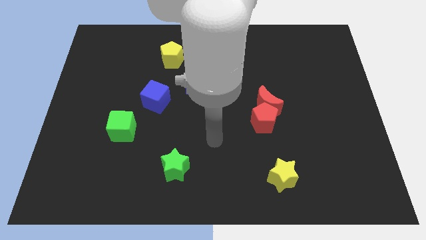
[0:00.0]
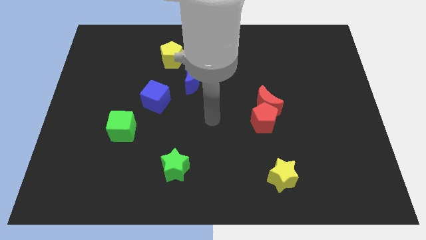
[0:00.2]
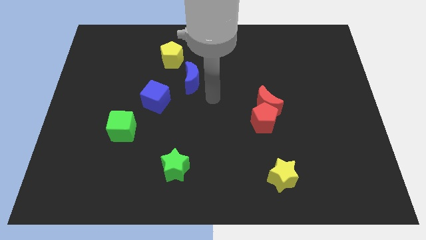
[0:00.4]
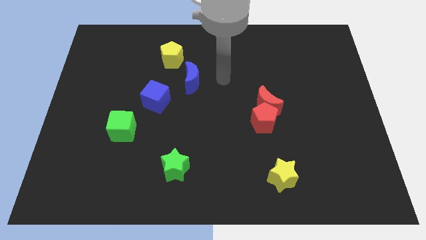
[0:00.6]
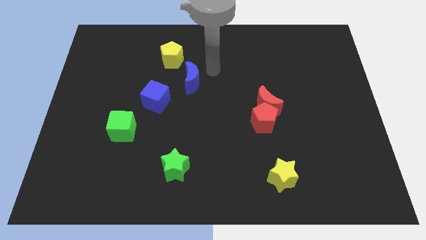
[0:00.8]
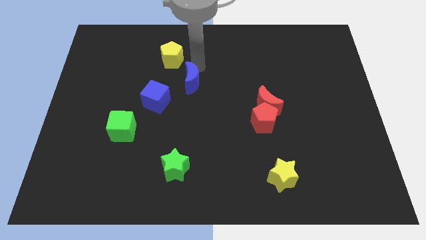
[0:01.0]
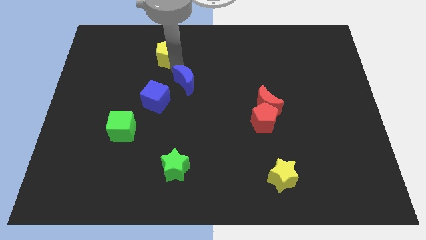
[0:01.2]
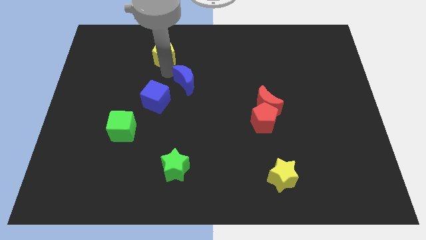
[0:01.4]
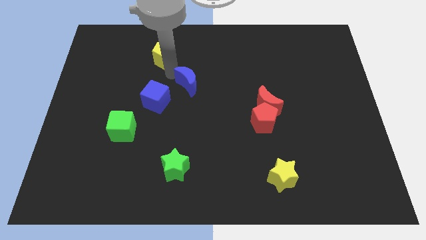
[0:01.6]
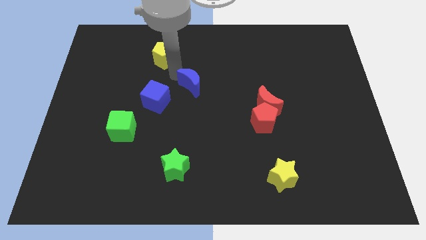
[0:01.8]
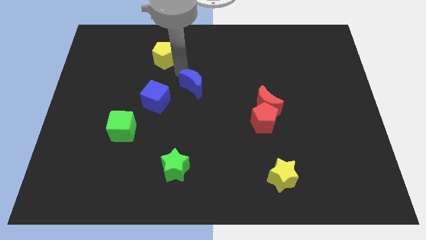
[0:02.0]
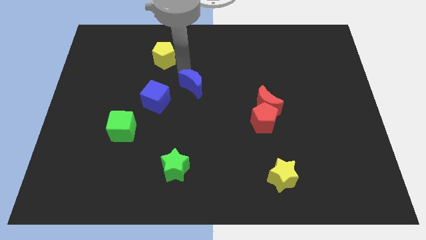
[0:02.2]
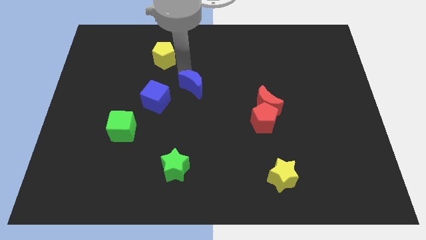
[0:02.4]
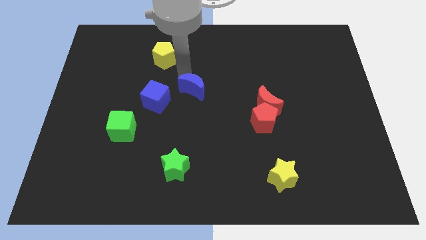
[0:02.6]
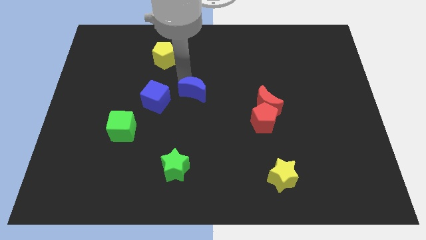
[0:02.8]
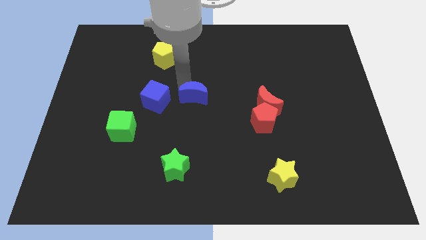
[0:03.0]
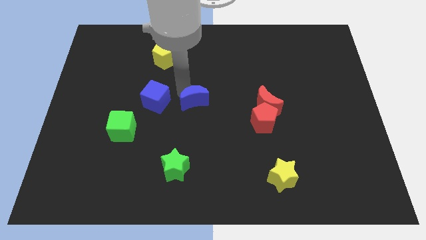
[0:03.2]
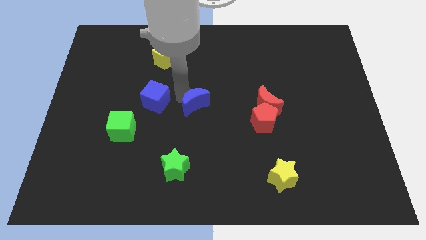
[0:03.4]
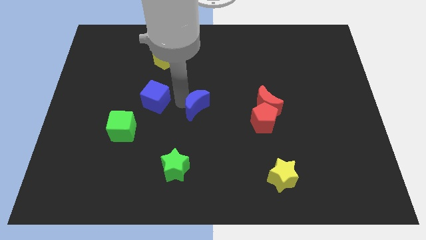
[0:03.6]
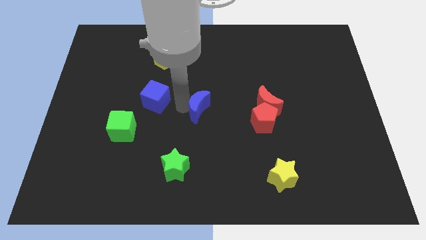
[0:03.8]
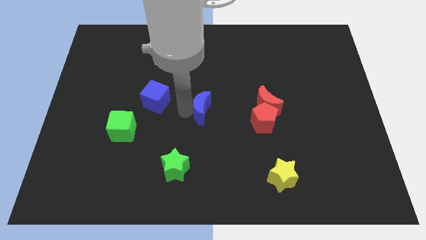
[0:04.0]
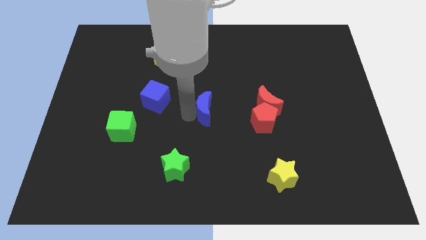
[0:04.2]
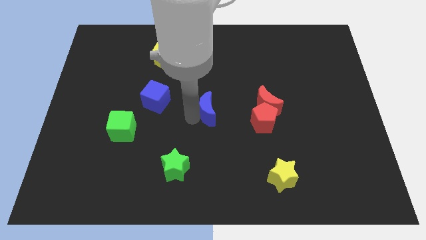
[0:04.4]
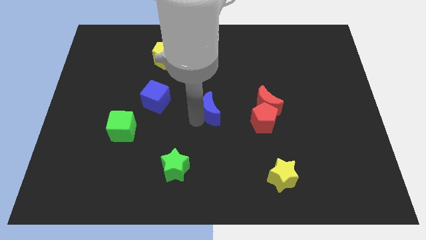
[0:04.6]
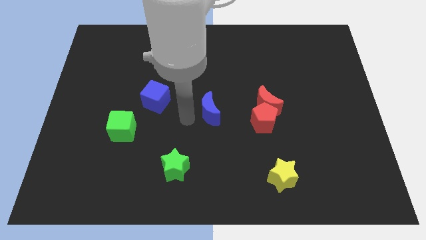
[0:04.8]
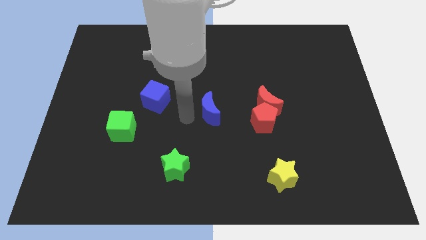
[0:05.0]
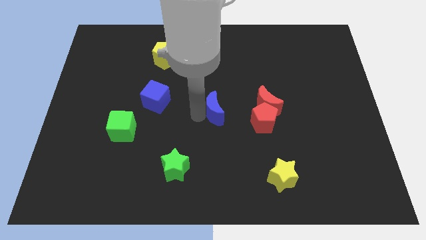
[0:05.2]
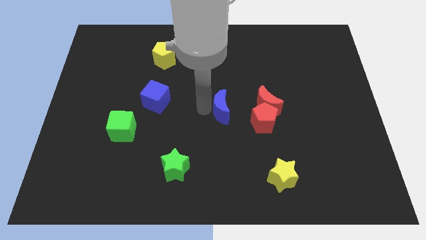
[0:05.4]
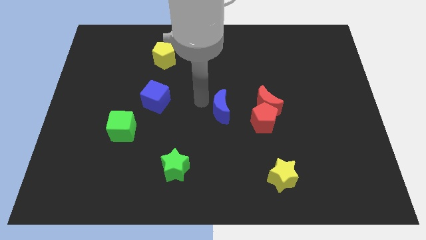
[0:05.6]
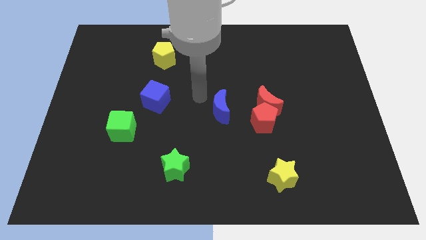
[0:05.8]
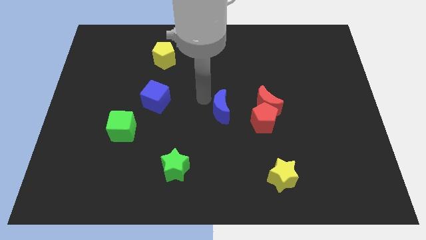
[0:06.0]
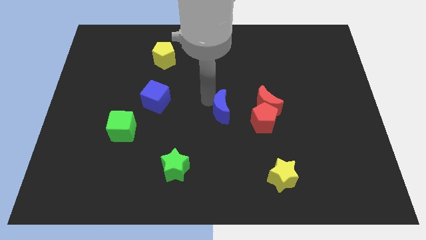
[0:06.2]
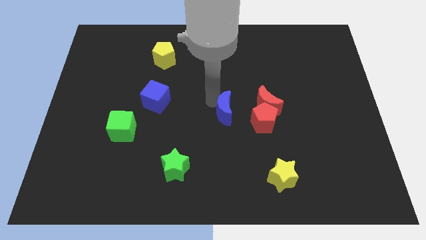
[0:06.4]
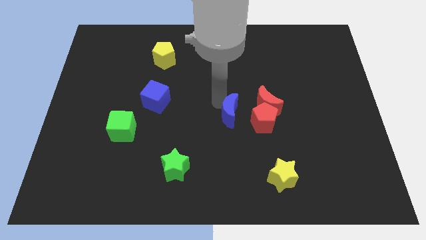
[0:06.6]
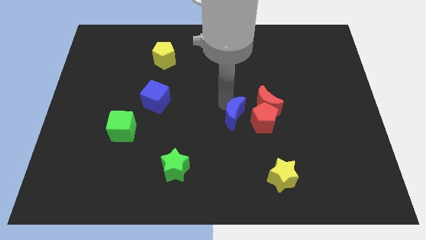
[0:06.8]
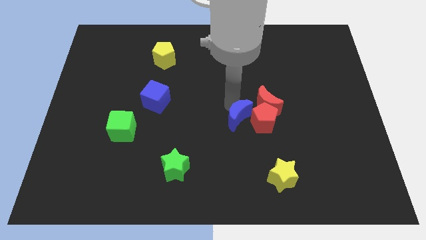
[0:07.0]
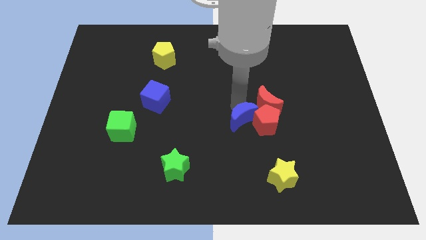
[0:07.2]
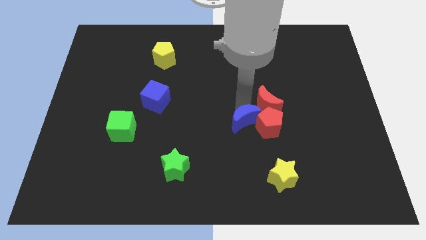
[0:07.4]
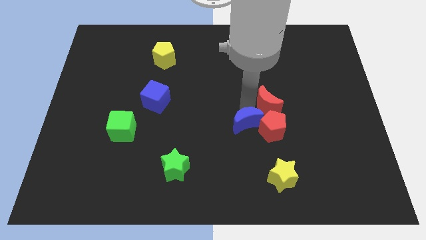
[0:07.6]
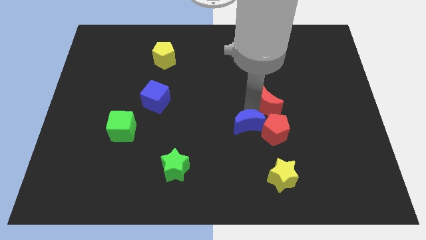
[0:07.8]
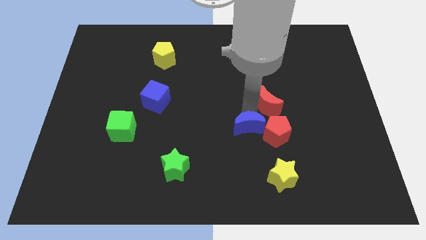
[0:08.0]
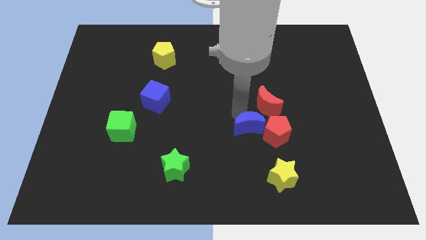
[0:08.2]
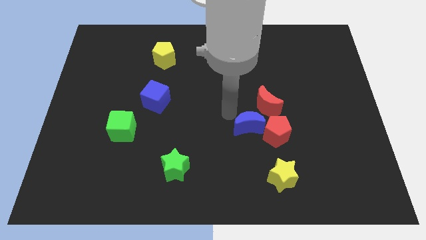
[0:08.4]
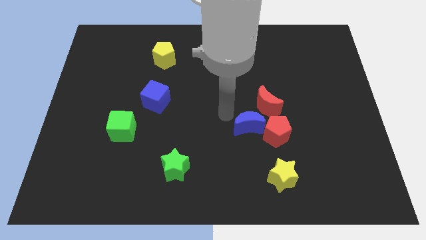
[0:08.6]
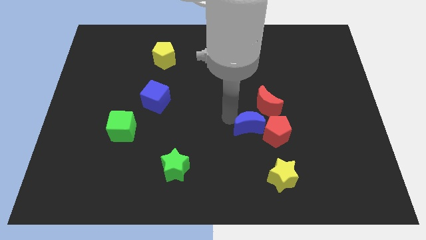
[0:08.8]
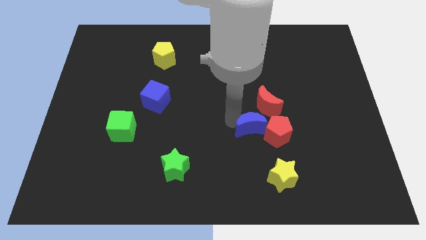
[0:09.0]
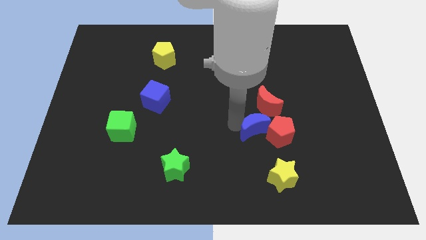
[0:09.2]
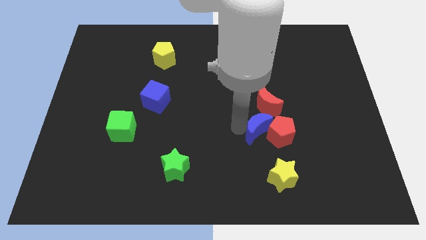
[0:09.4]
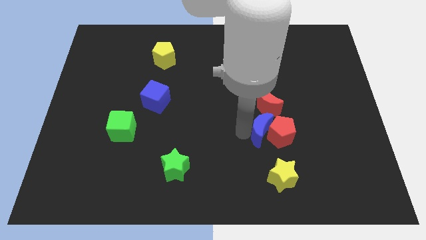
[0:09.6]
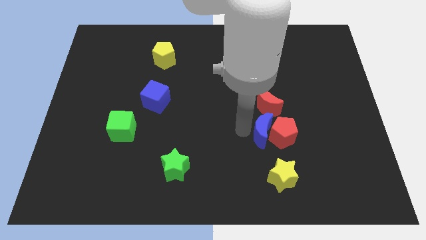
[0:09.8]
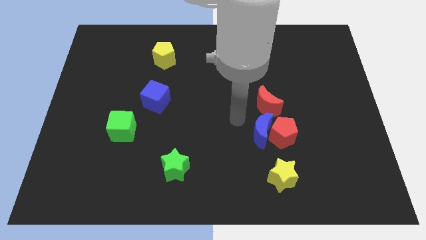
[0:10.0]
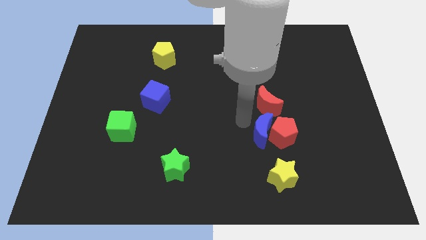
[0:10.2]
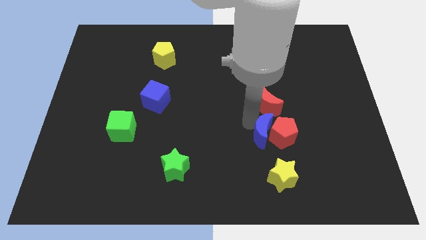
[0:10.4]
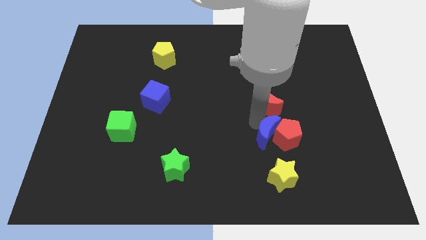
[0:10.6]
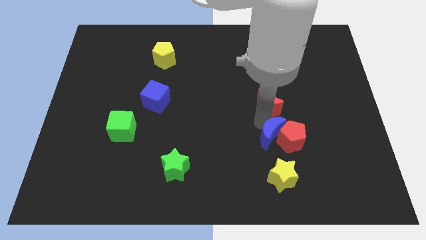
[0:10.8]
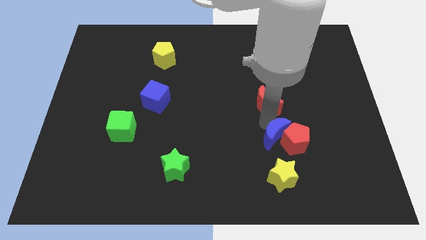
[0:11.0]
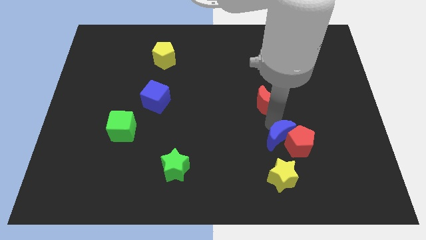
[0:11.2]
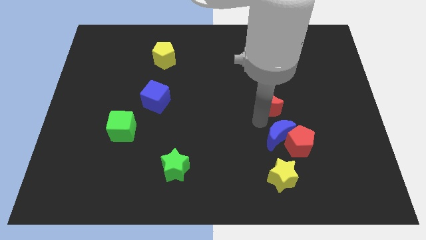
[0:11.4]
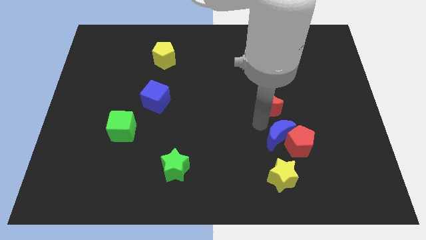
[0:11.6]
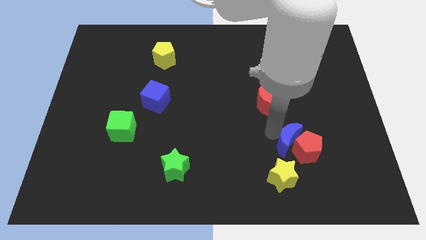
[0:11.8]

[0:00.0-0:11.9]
slide the blue moon to the top right of the yellow star

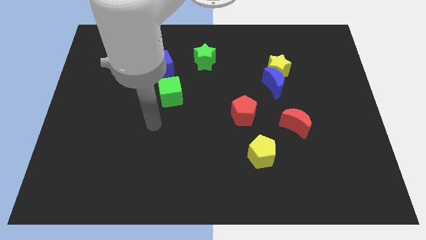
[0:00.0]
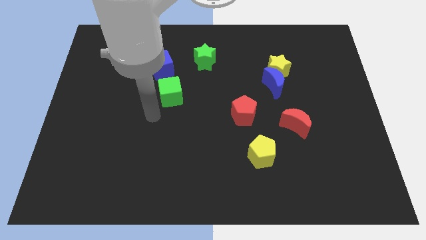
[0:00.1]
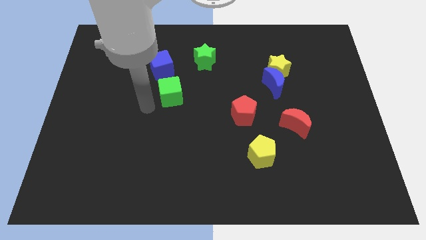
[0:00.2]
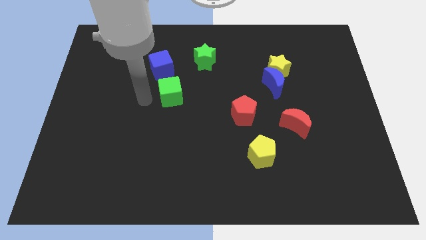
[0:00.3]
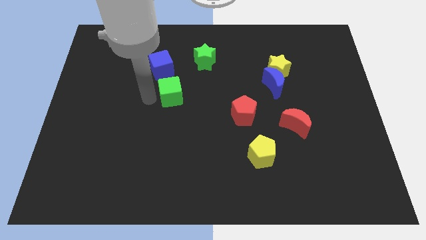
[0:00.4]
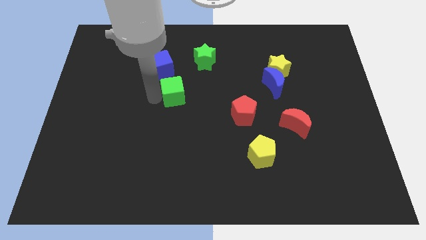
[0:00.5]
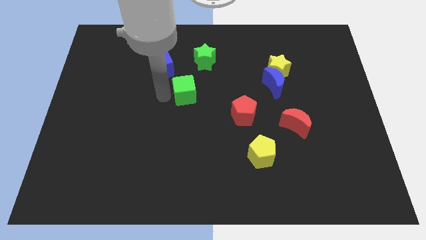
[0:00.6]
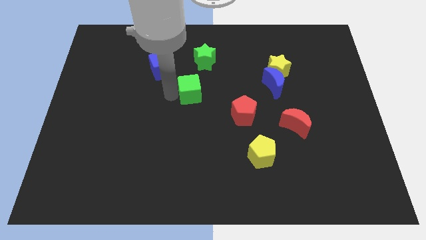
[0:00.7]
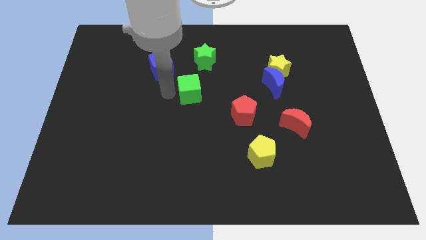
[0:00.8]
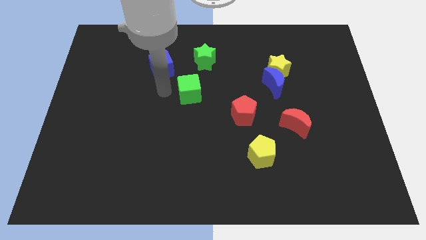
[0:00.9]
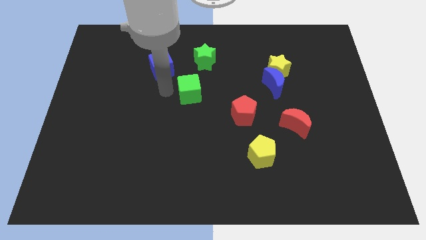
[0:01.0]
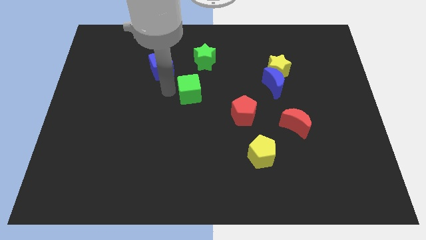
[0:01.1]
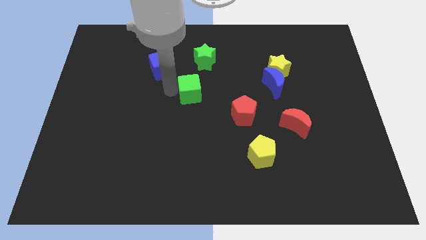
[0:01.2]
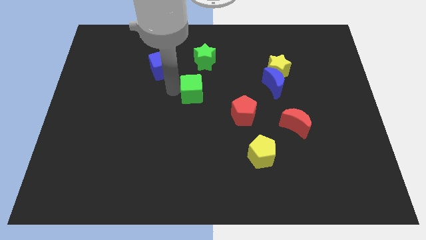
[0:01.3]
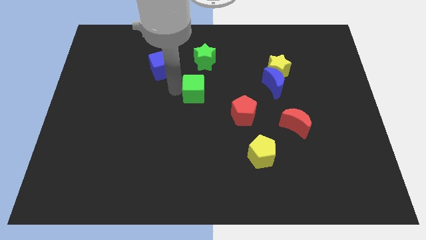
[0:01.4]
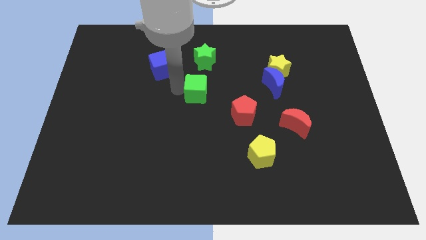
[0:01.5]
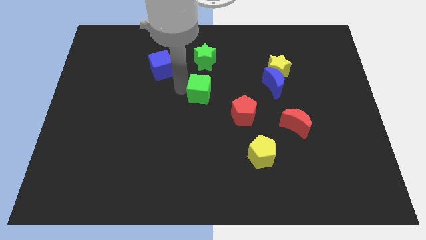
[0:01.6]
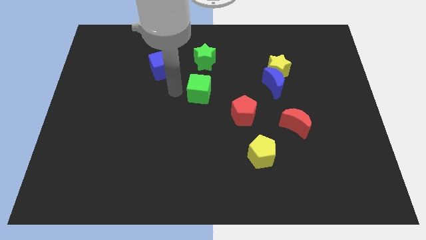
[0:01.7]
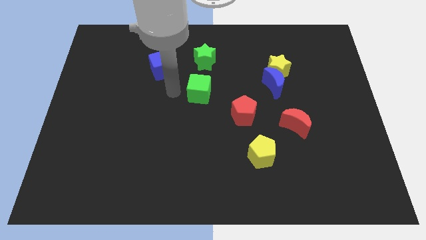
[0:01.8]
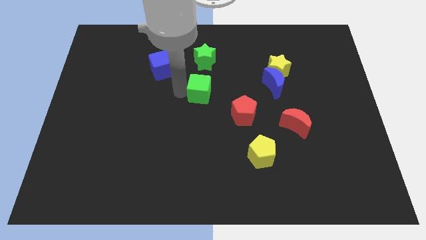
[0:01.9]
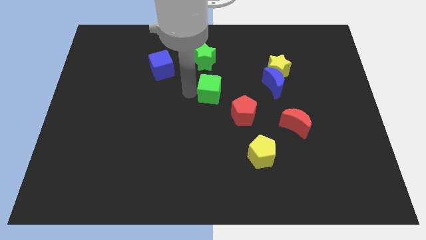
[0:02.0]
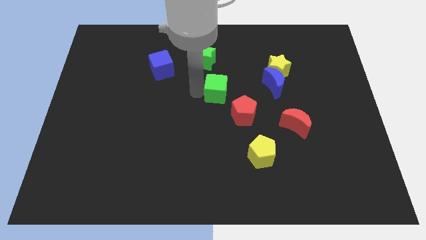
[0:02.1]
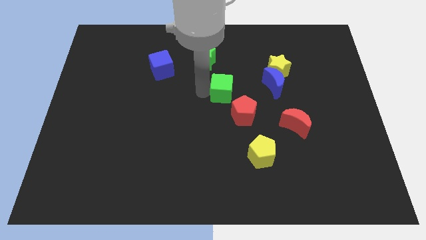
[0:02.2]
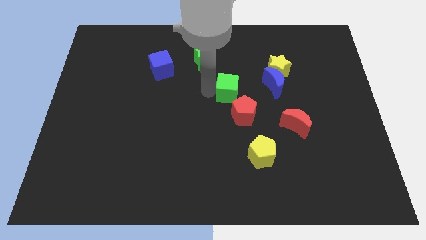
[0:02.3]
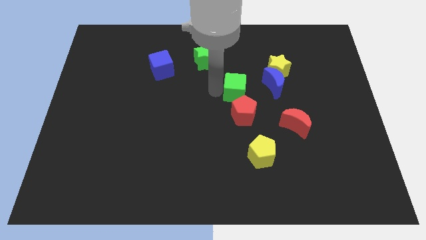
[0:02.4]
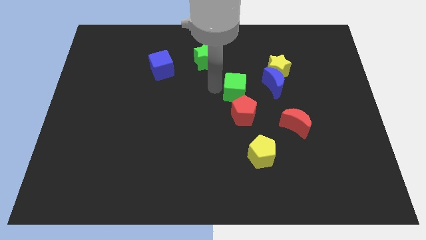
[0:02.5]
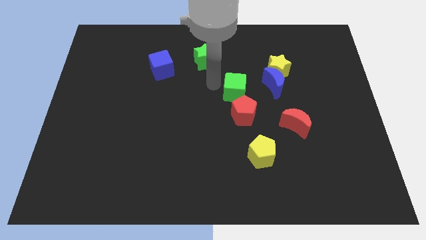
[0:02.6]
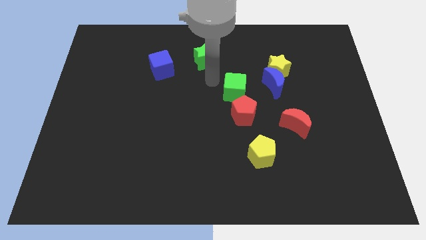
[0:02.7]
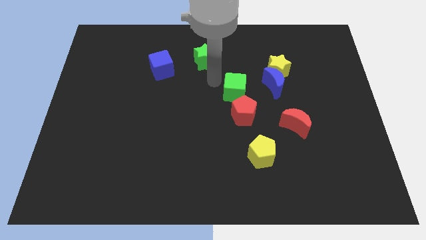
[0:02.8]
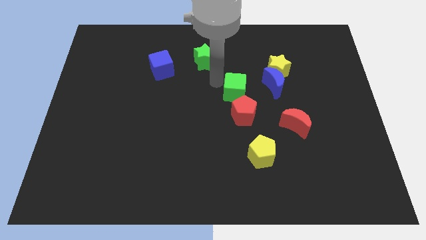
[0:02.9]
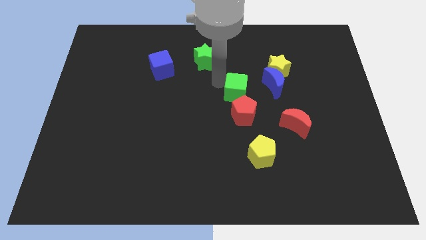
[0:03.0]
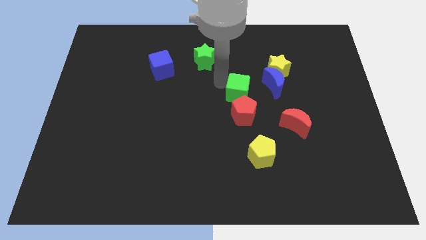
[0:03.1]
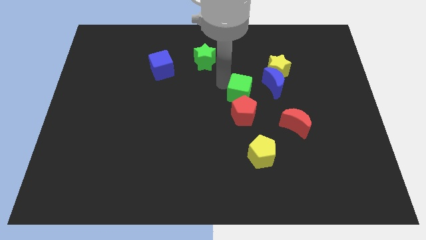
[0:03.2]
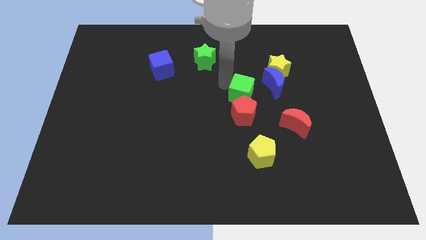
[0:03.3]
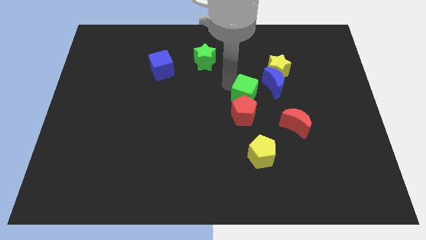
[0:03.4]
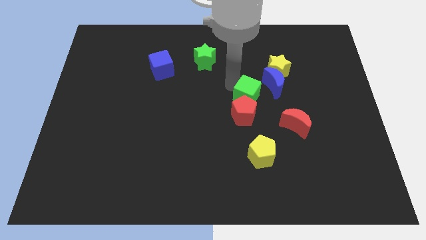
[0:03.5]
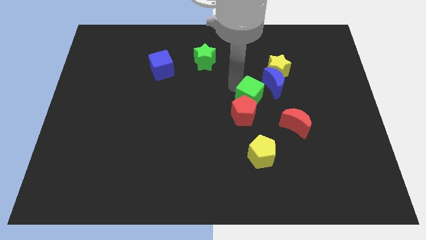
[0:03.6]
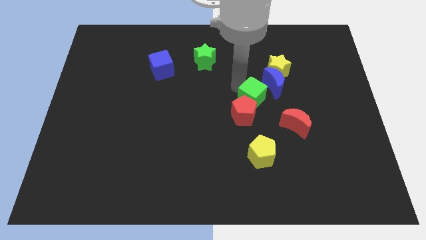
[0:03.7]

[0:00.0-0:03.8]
put the green cube diagonally up and to the left of the red moon
